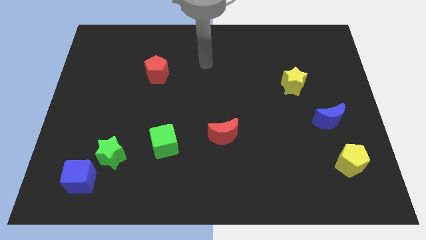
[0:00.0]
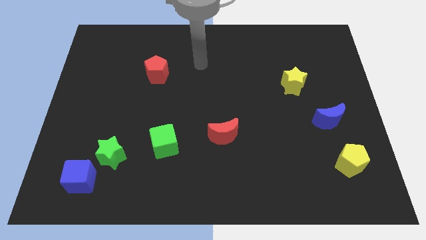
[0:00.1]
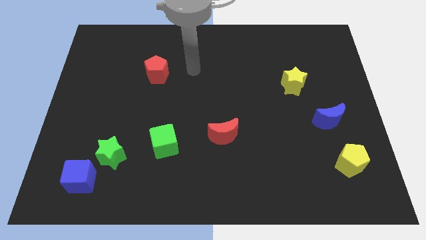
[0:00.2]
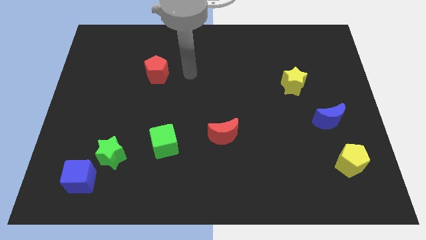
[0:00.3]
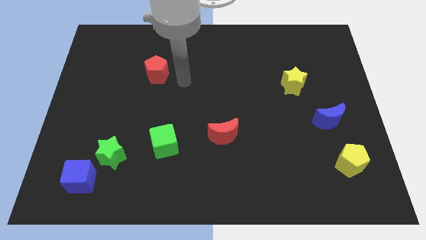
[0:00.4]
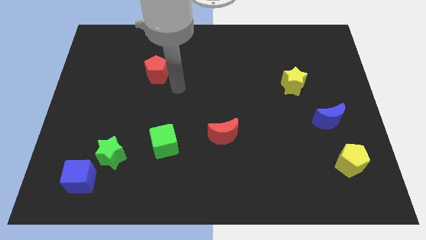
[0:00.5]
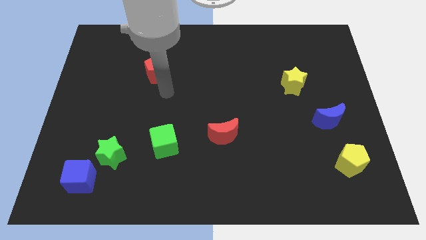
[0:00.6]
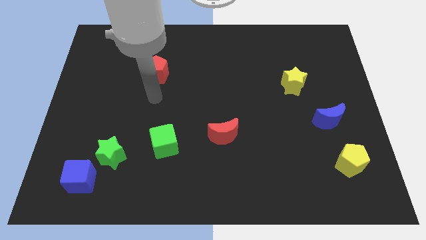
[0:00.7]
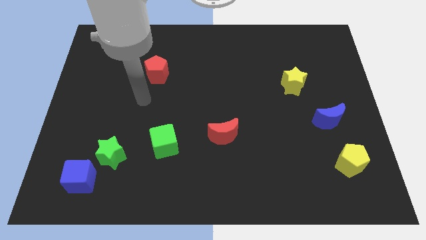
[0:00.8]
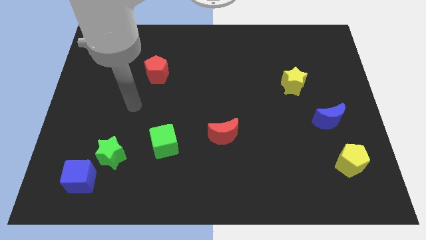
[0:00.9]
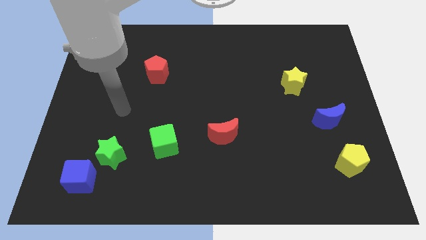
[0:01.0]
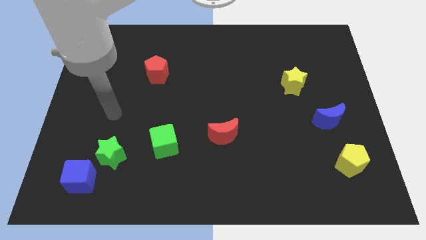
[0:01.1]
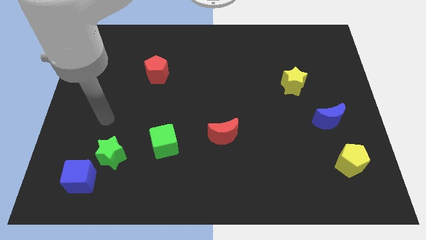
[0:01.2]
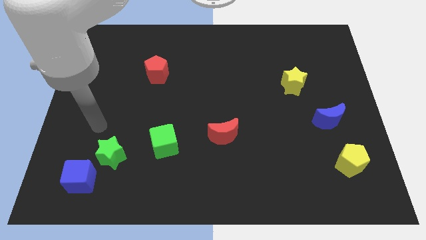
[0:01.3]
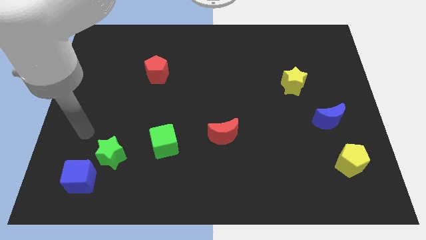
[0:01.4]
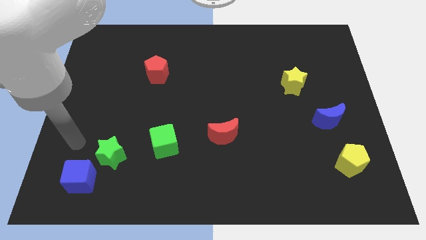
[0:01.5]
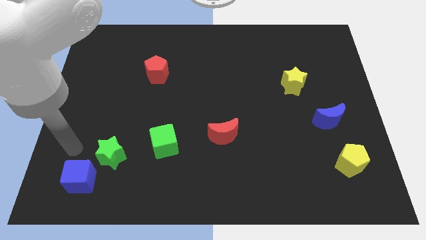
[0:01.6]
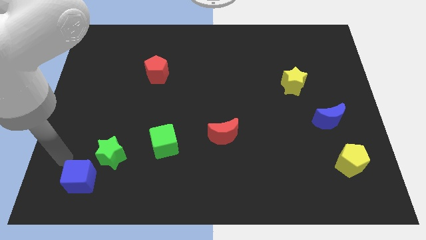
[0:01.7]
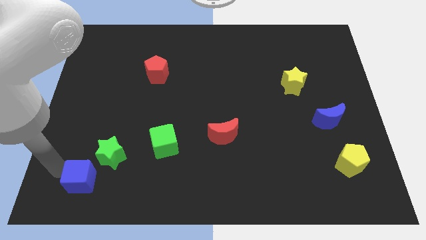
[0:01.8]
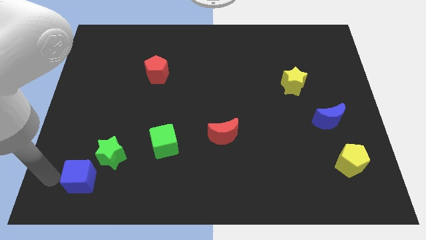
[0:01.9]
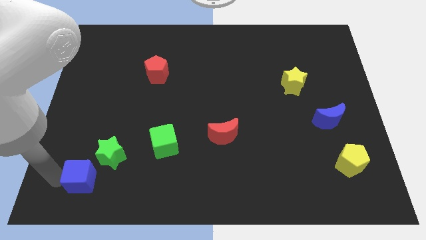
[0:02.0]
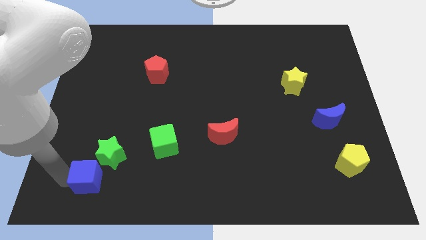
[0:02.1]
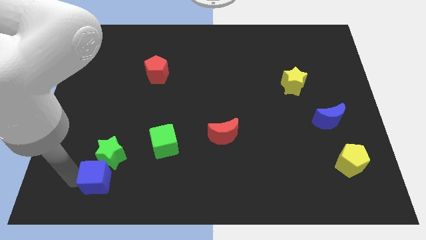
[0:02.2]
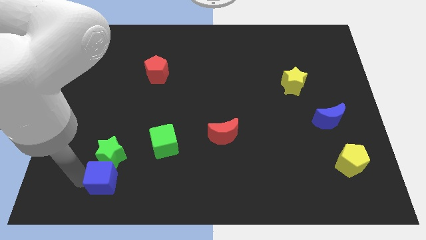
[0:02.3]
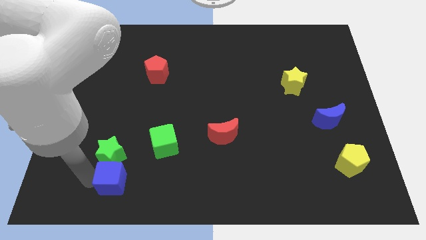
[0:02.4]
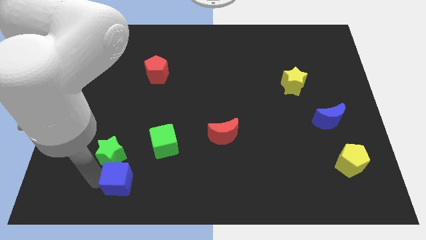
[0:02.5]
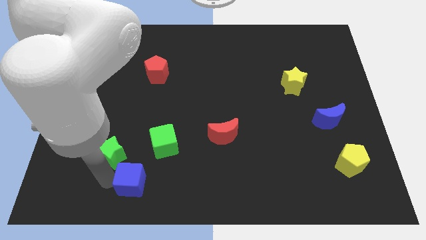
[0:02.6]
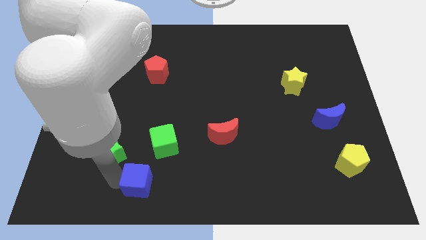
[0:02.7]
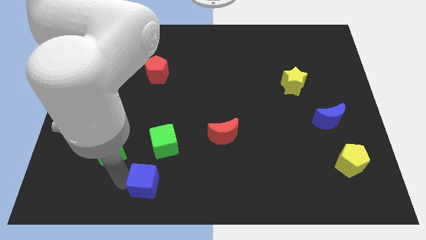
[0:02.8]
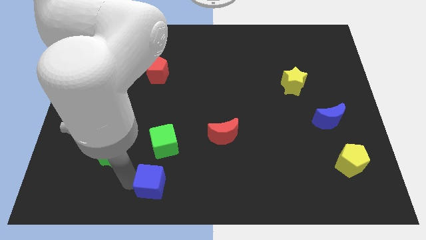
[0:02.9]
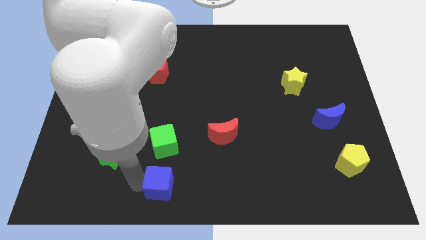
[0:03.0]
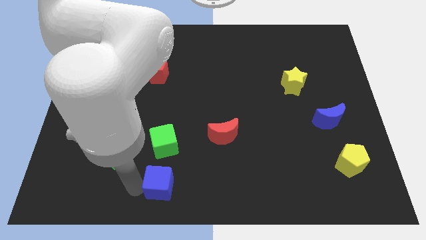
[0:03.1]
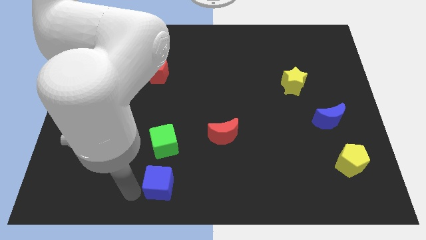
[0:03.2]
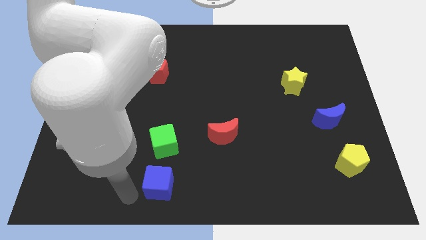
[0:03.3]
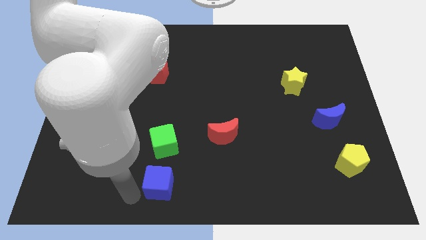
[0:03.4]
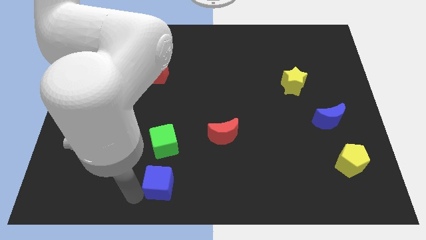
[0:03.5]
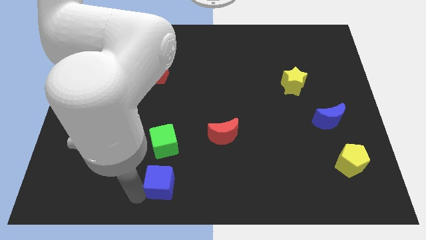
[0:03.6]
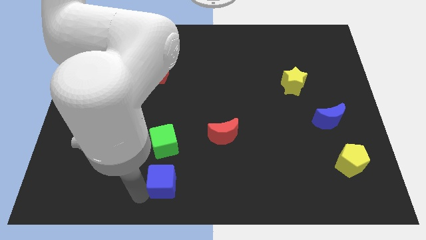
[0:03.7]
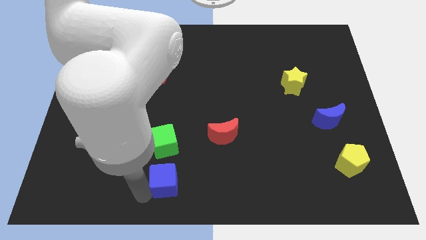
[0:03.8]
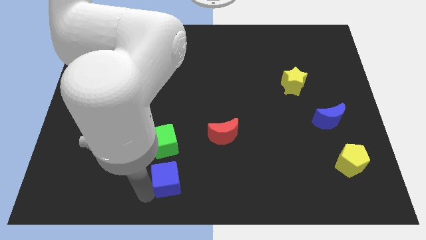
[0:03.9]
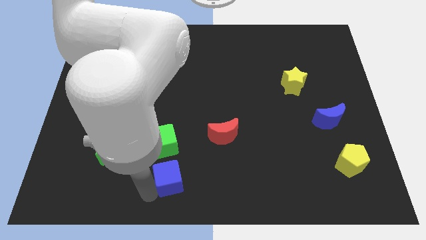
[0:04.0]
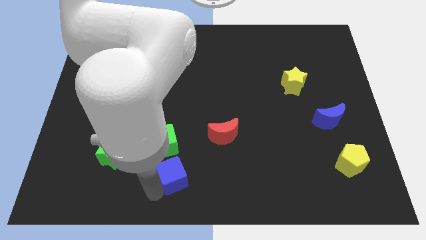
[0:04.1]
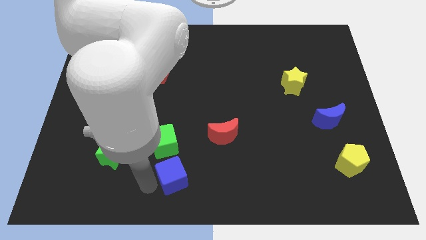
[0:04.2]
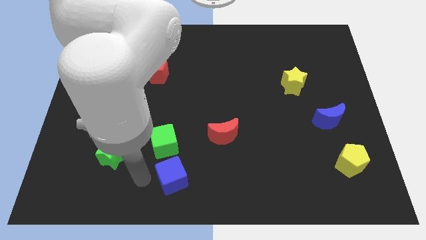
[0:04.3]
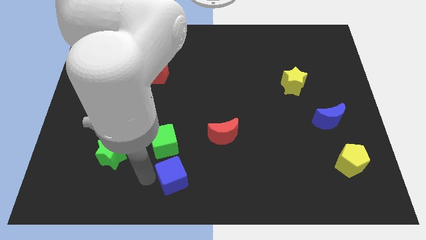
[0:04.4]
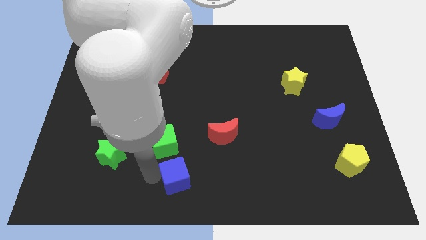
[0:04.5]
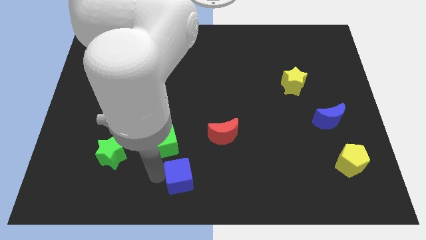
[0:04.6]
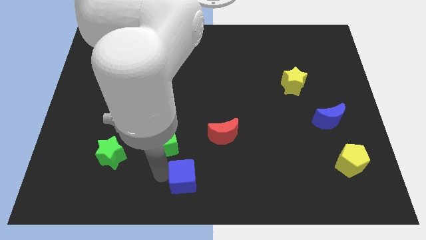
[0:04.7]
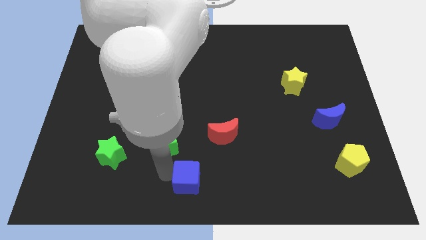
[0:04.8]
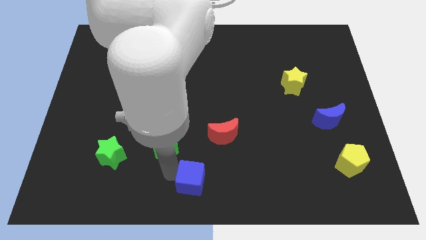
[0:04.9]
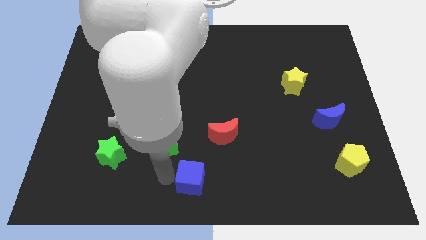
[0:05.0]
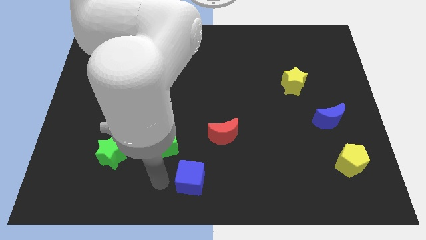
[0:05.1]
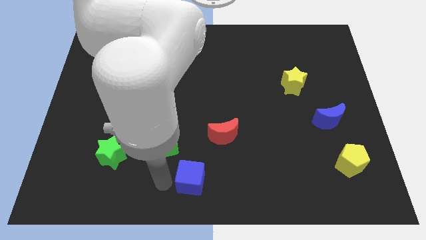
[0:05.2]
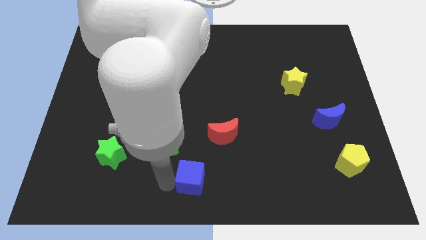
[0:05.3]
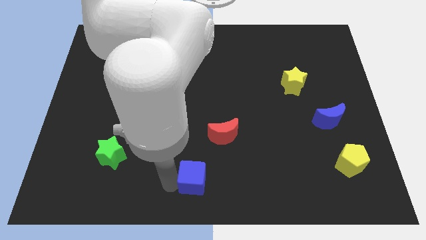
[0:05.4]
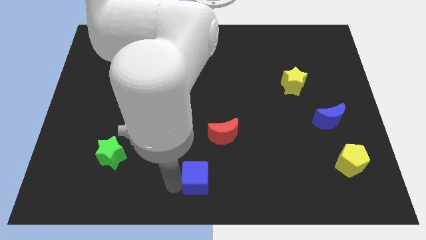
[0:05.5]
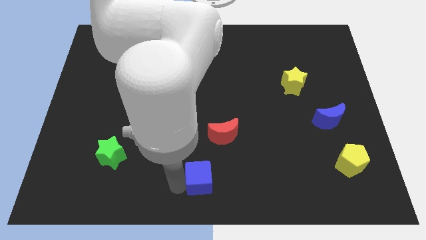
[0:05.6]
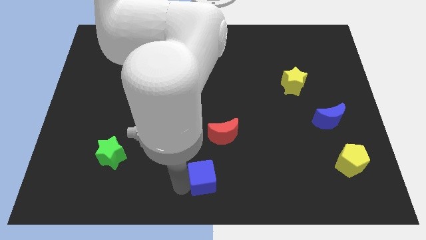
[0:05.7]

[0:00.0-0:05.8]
push the blue cube to the bottom of the red moon

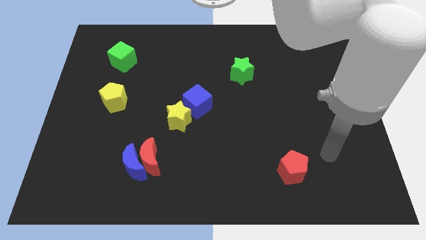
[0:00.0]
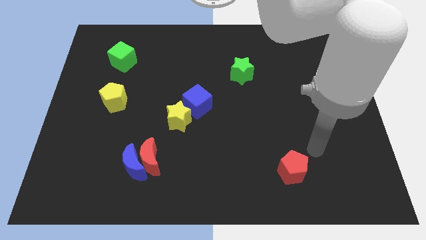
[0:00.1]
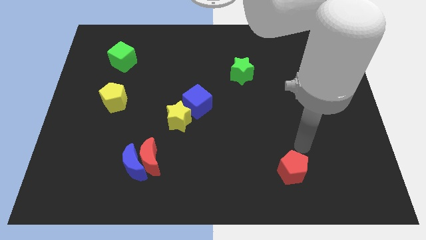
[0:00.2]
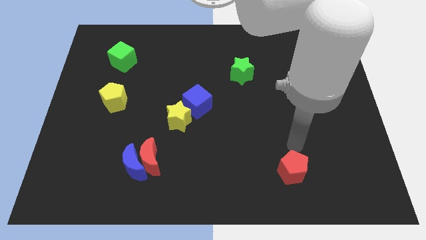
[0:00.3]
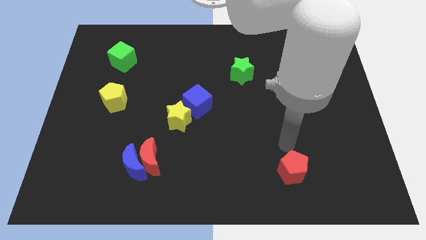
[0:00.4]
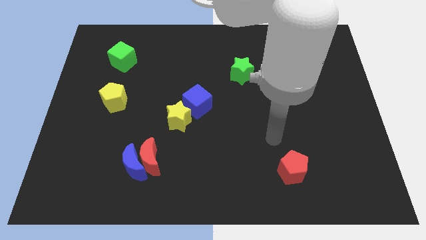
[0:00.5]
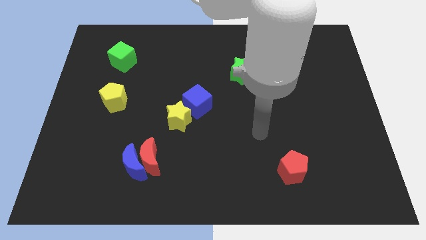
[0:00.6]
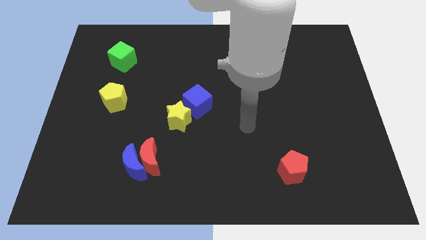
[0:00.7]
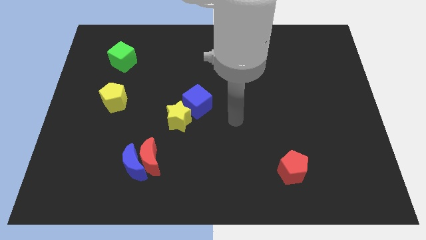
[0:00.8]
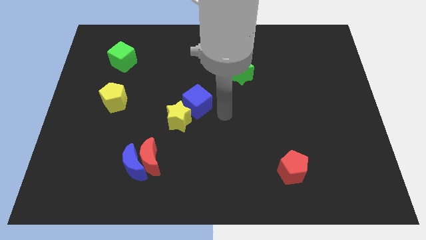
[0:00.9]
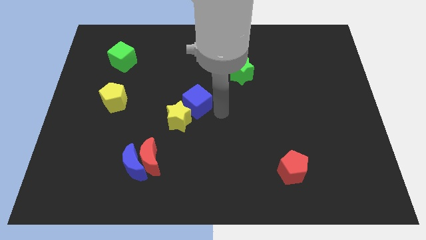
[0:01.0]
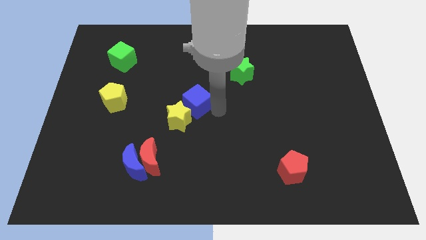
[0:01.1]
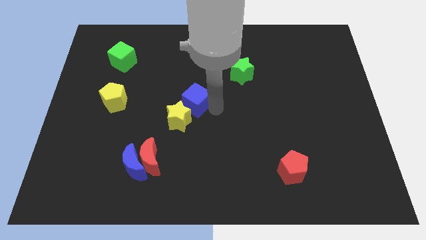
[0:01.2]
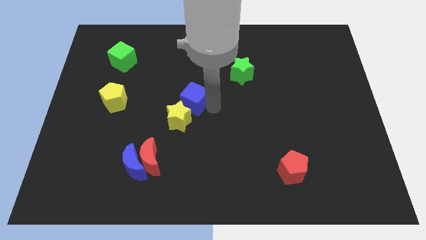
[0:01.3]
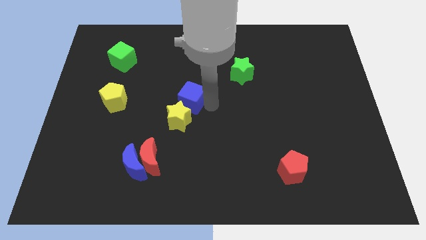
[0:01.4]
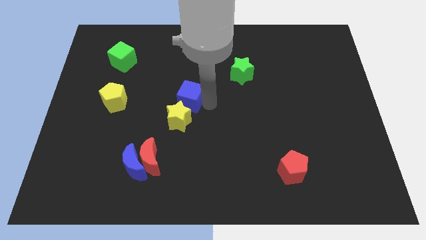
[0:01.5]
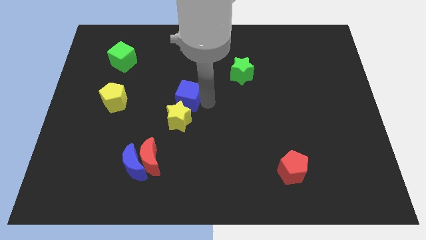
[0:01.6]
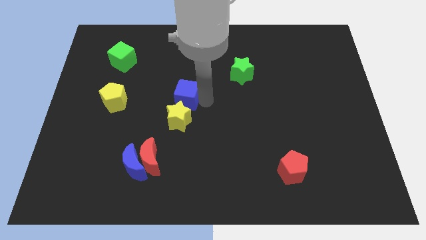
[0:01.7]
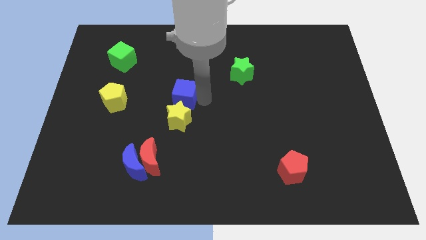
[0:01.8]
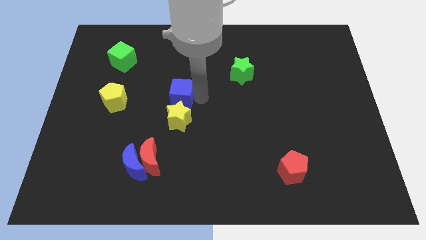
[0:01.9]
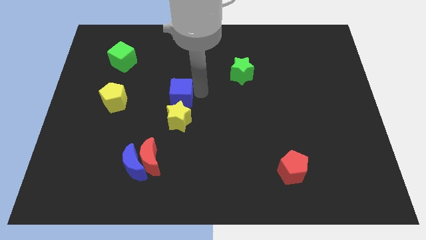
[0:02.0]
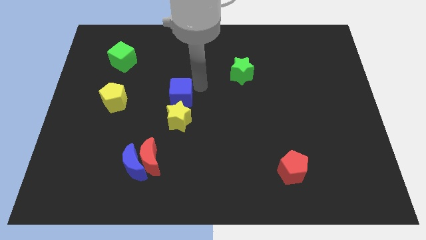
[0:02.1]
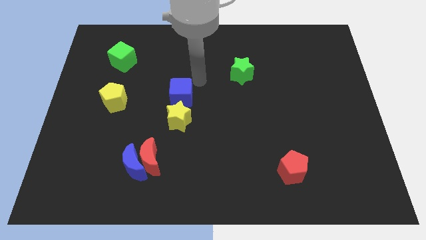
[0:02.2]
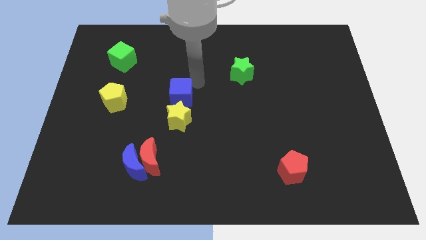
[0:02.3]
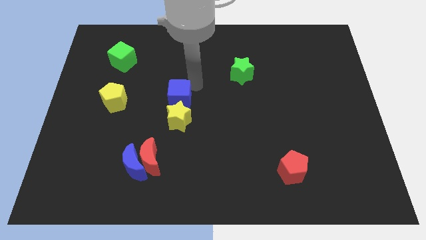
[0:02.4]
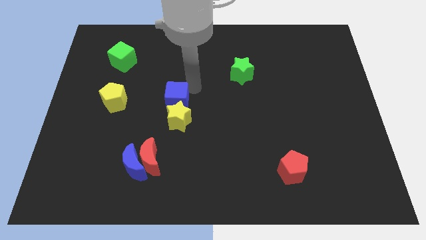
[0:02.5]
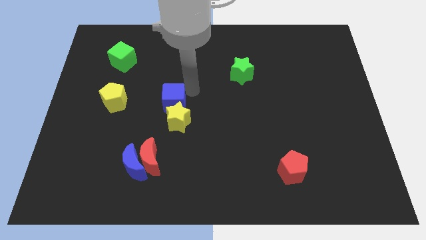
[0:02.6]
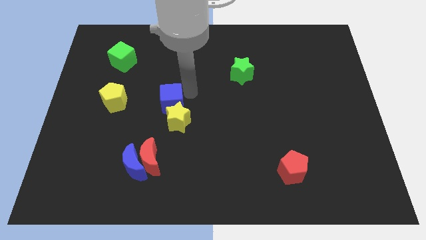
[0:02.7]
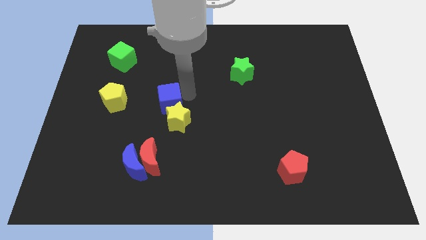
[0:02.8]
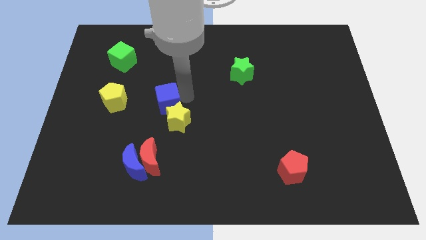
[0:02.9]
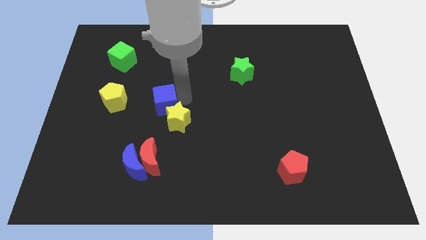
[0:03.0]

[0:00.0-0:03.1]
push the blue cube above the red moon
